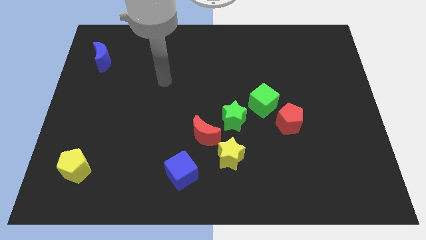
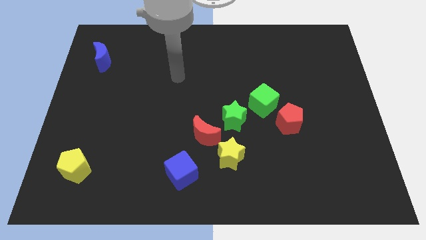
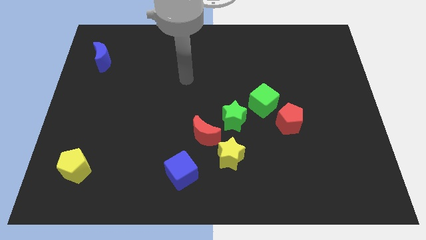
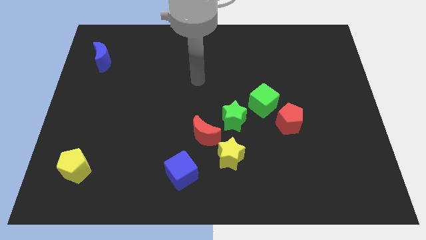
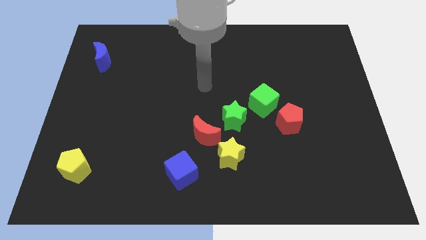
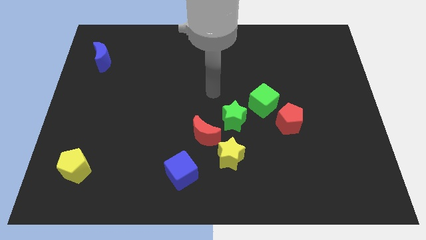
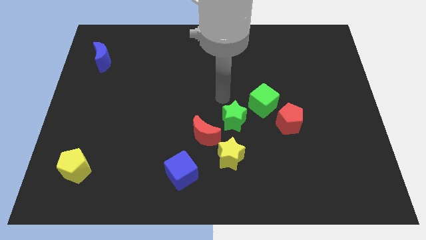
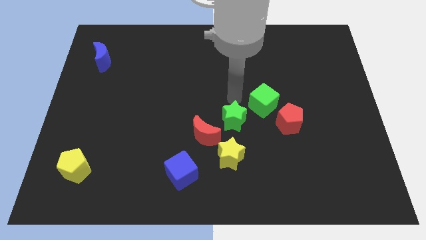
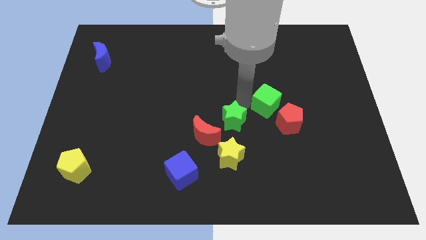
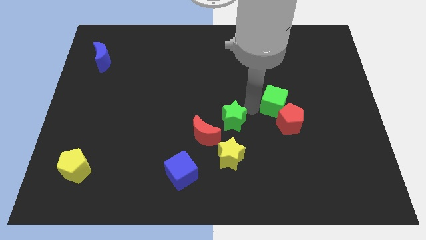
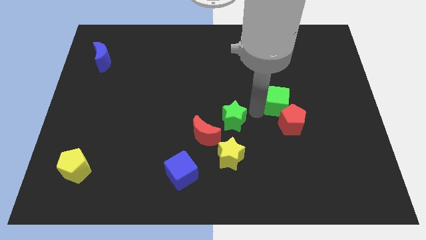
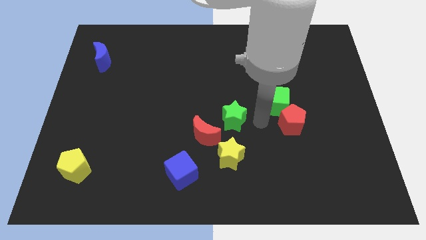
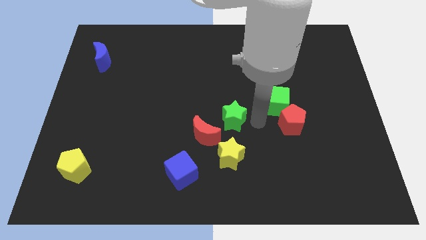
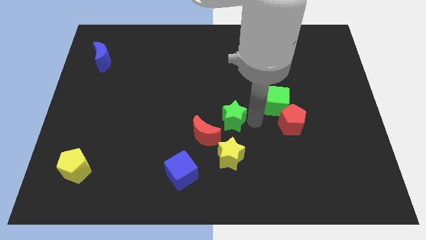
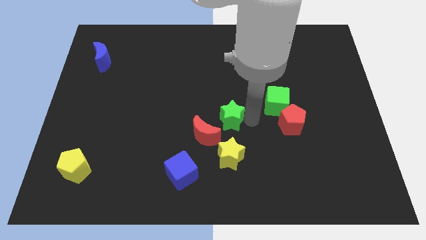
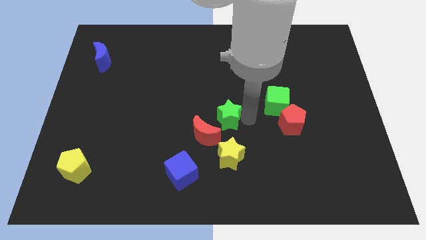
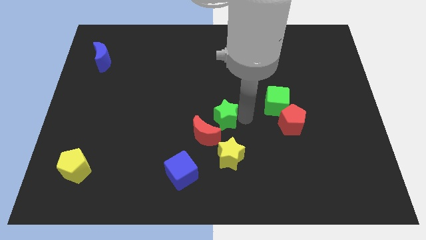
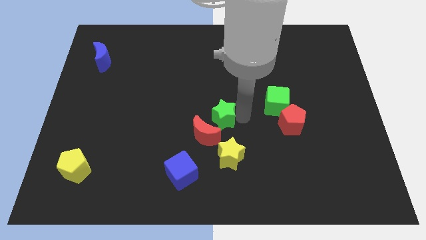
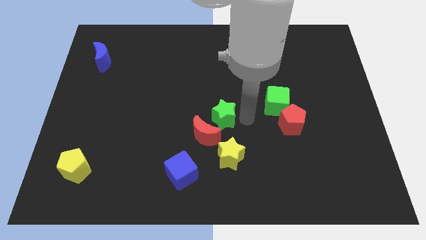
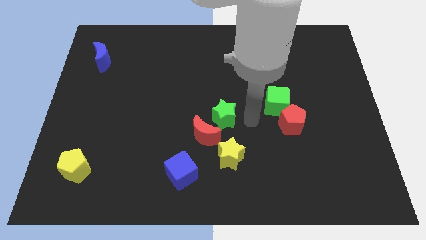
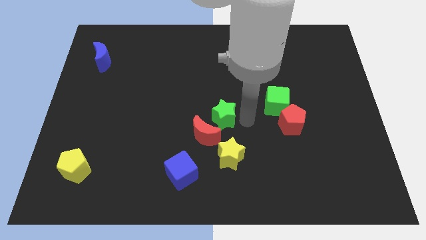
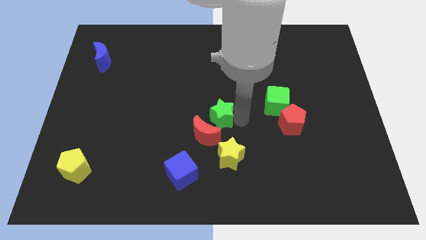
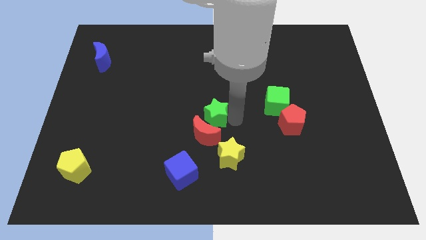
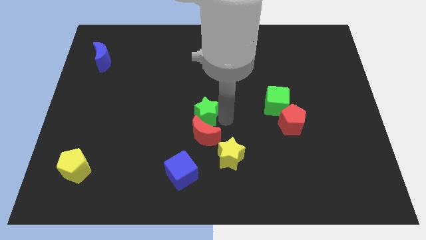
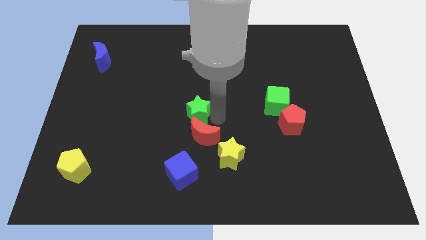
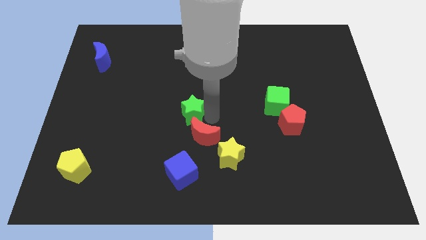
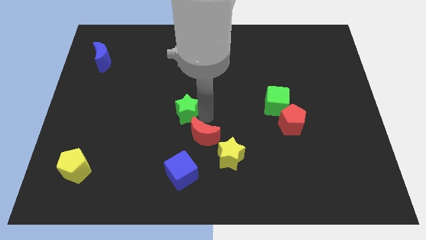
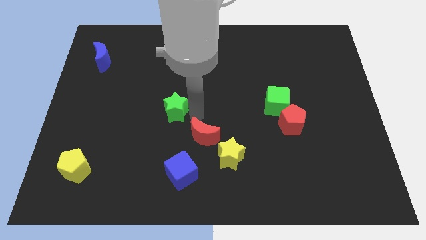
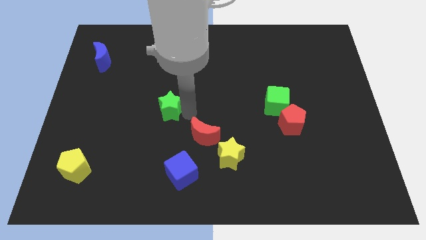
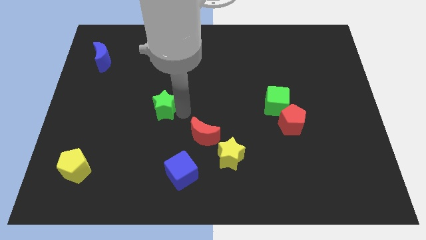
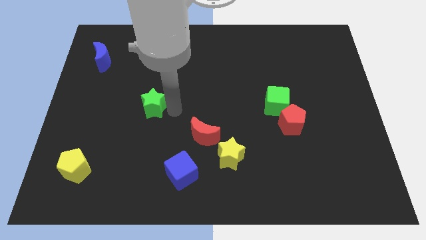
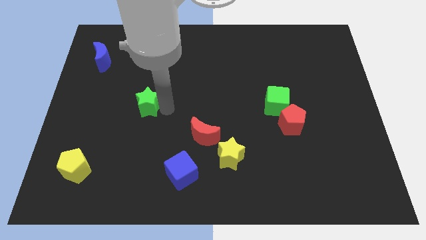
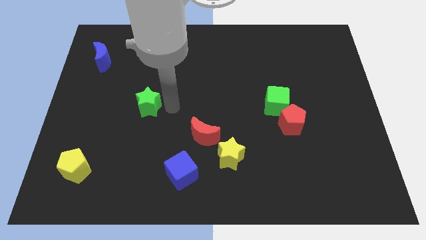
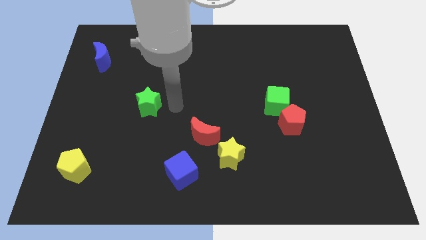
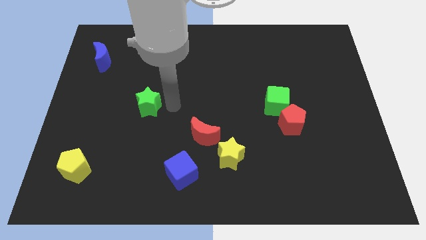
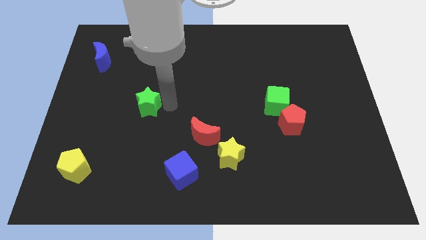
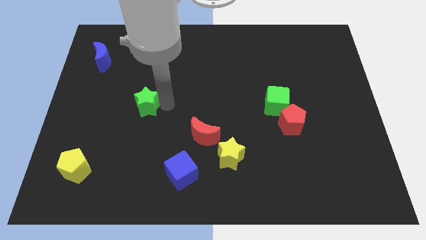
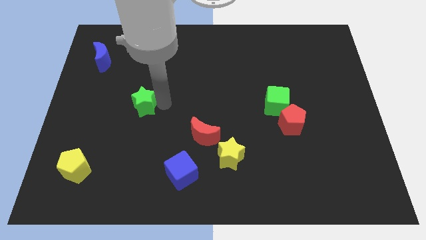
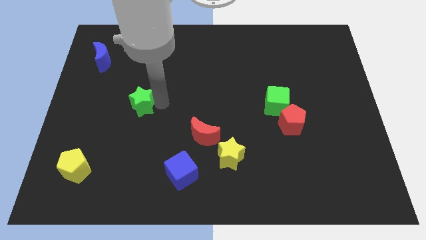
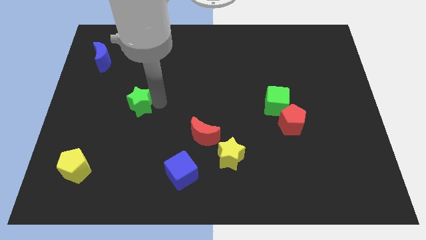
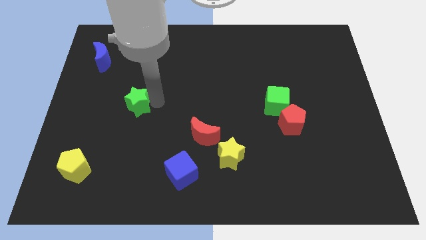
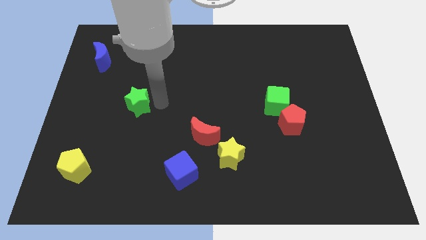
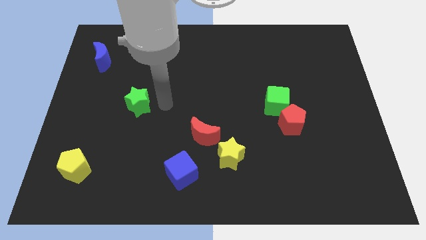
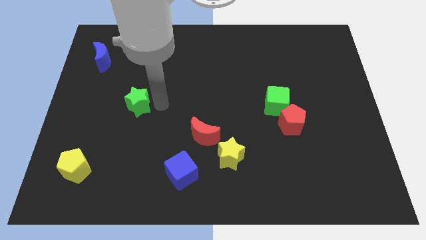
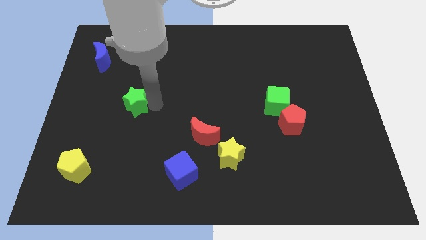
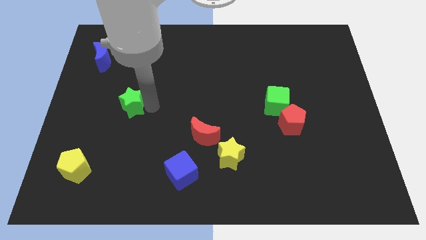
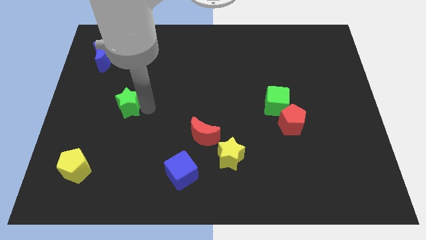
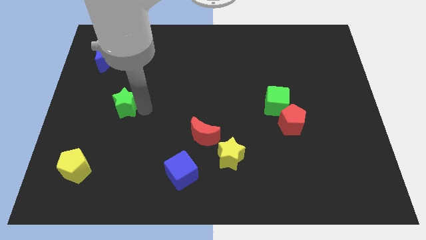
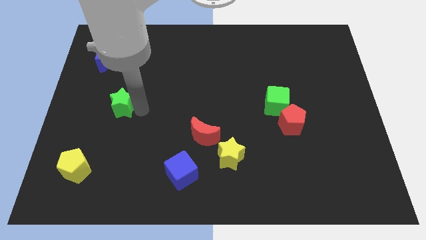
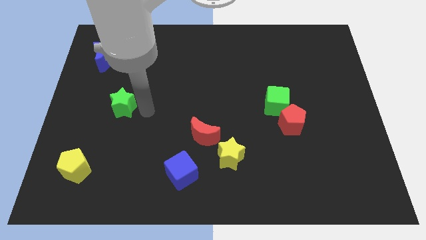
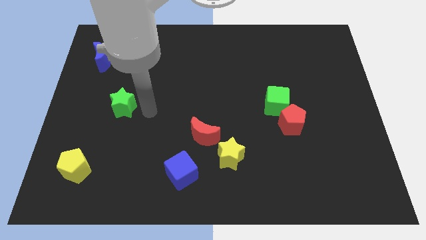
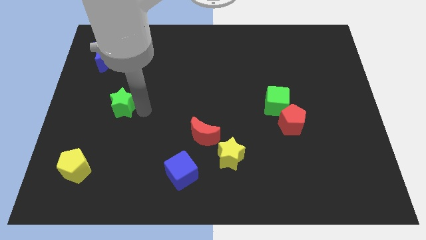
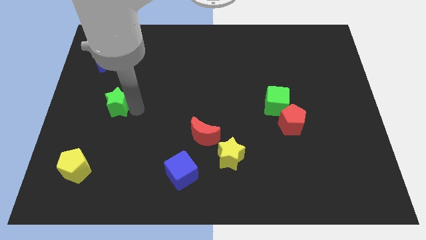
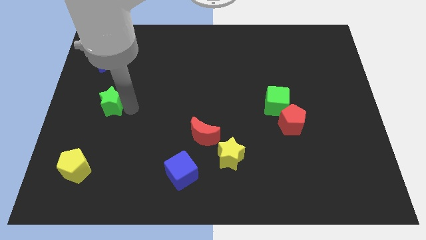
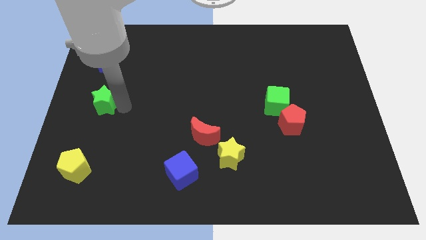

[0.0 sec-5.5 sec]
push the green star to the center left

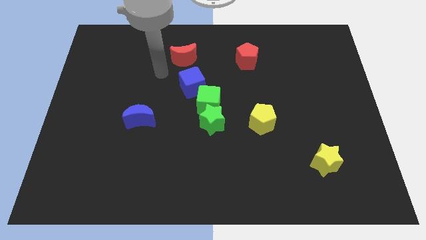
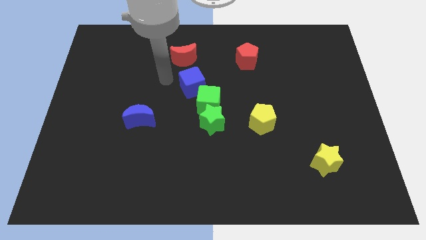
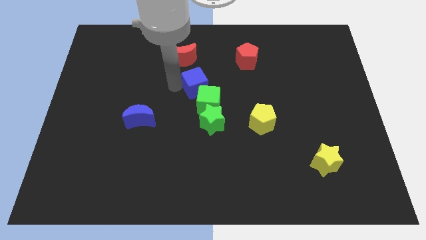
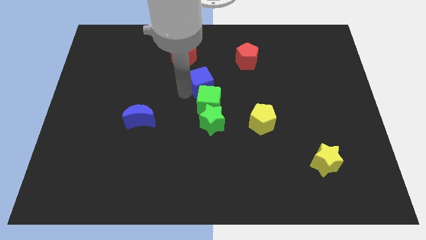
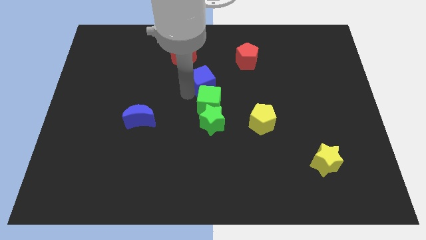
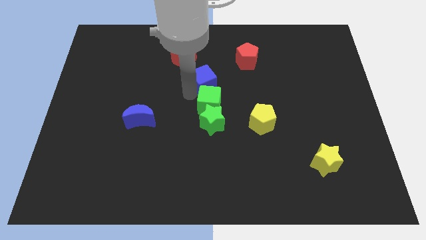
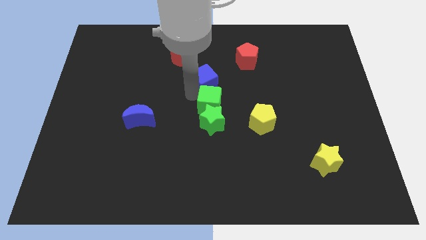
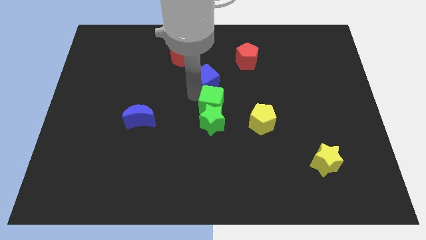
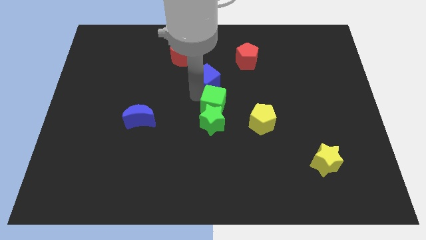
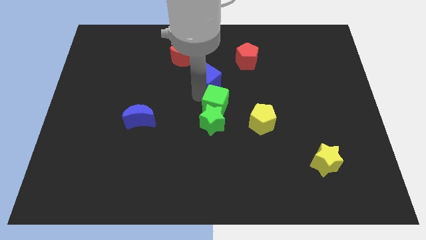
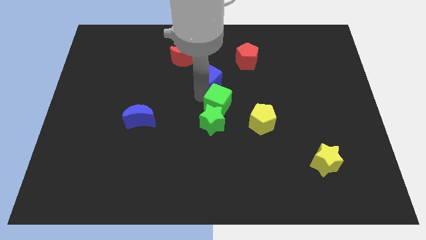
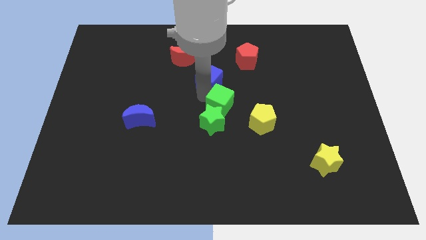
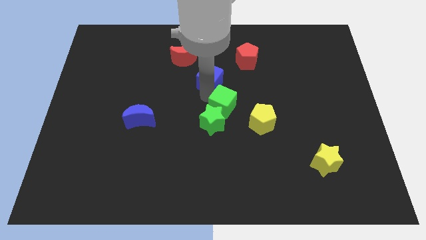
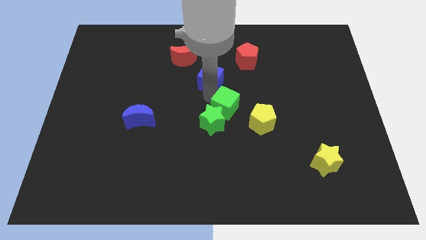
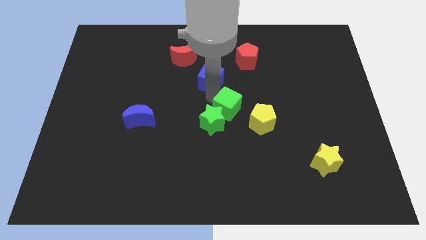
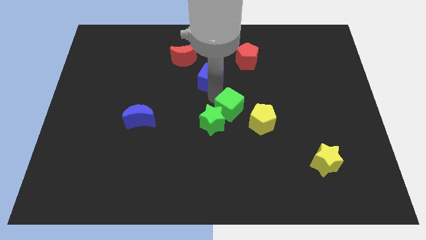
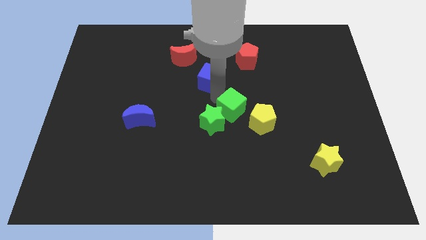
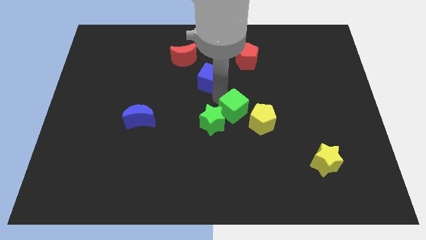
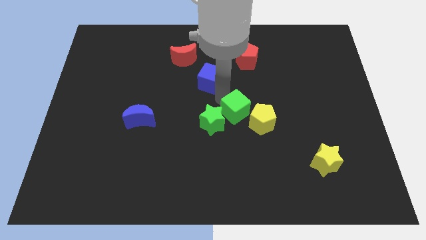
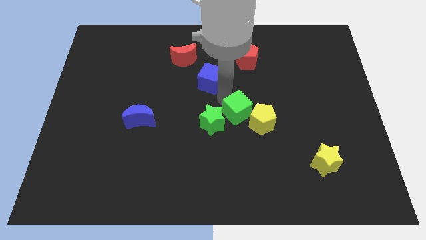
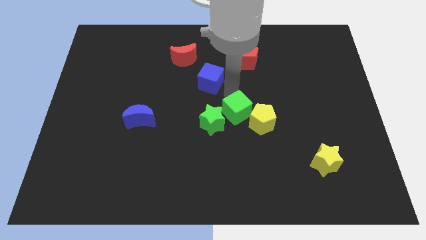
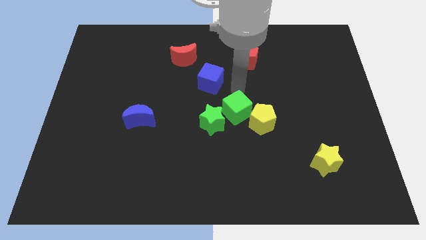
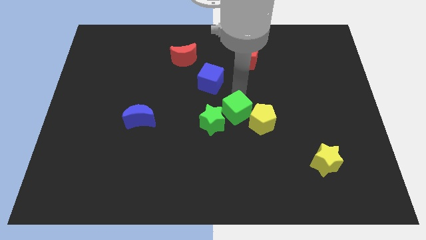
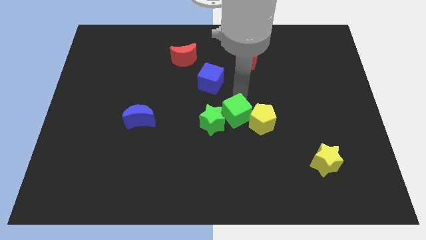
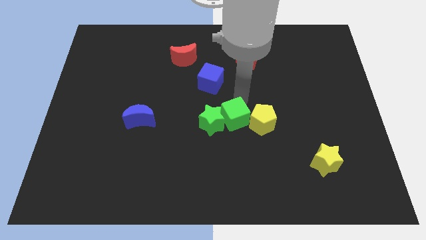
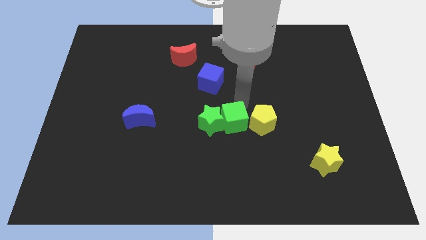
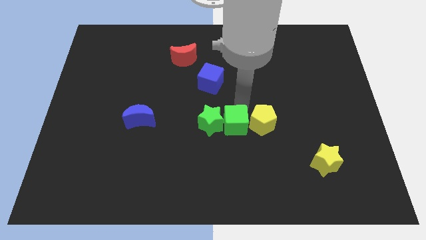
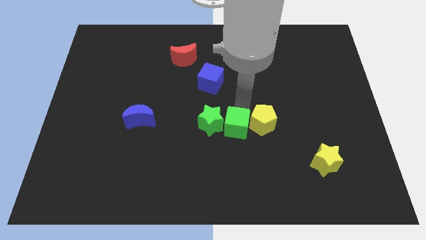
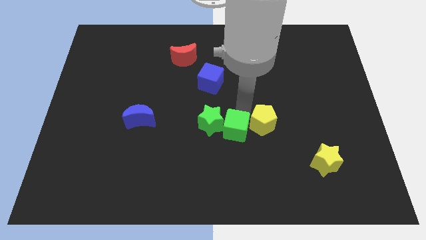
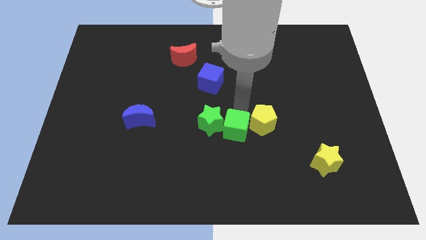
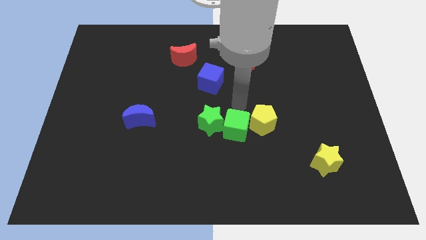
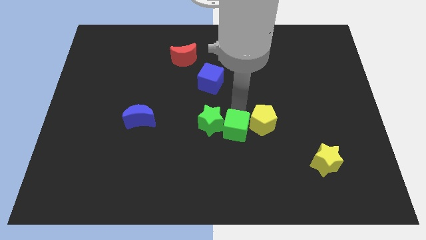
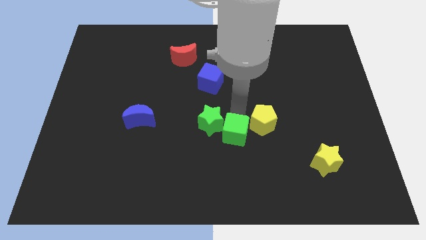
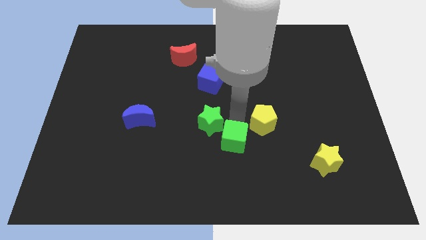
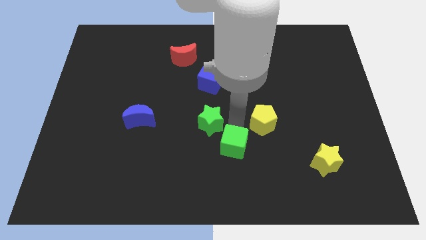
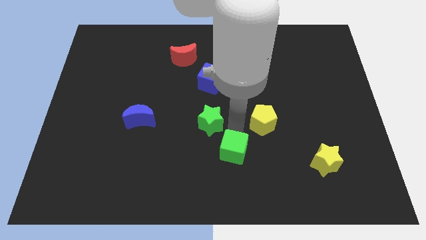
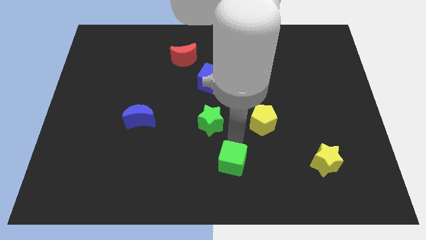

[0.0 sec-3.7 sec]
push the green cube to the bottom
